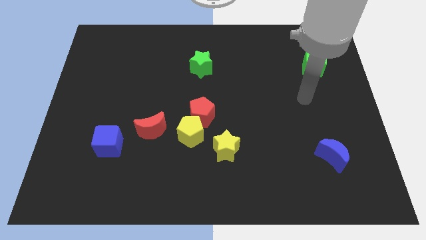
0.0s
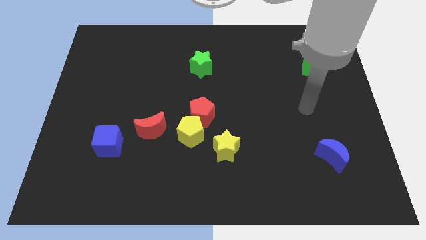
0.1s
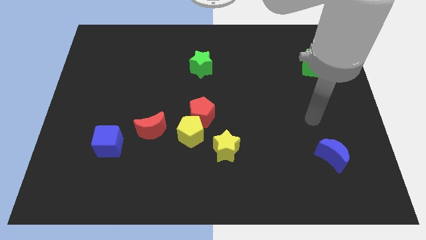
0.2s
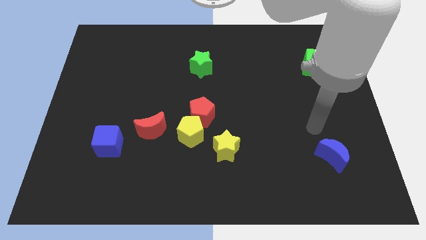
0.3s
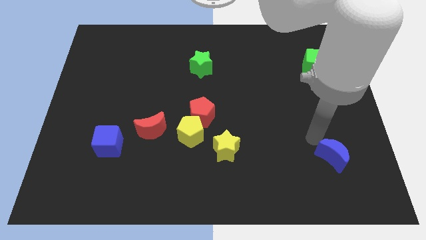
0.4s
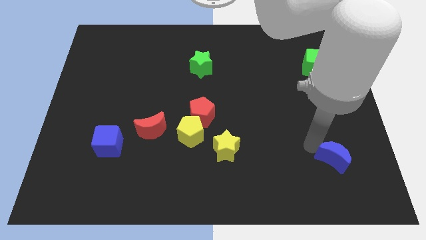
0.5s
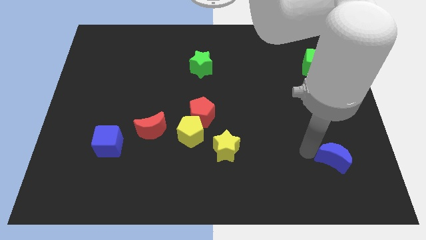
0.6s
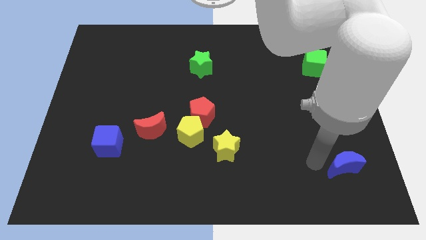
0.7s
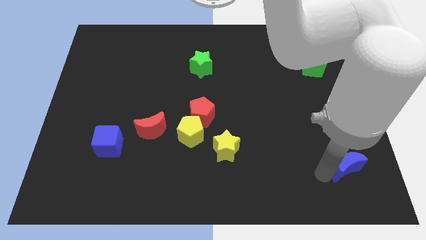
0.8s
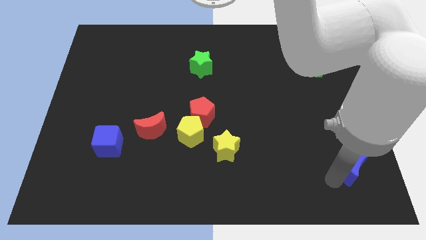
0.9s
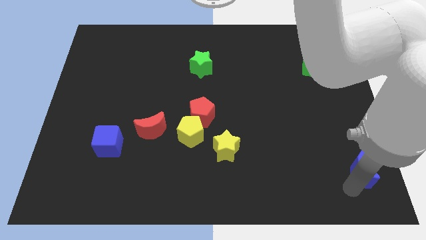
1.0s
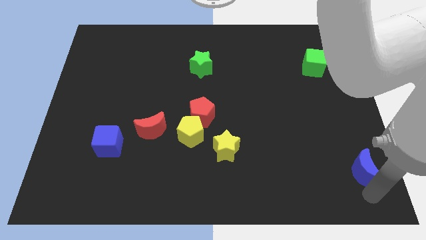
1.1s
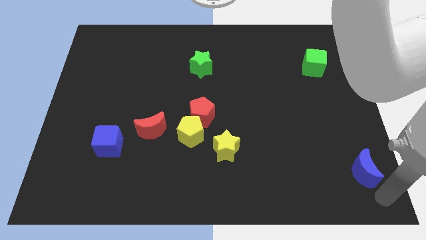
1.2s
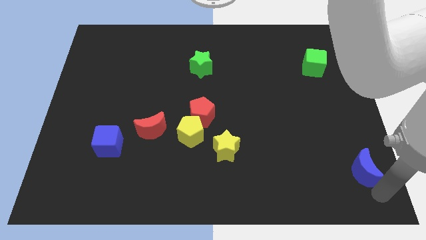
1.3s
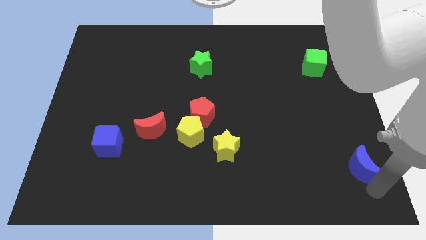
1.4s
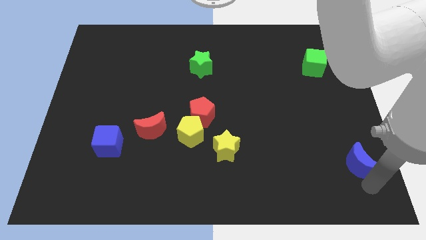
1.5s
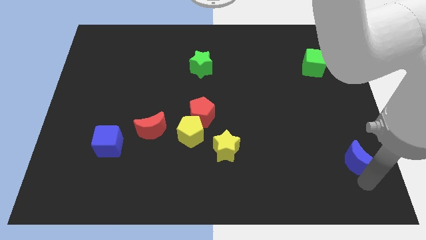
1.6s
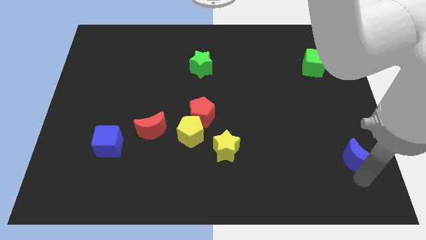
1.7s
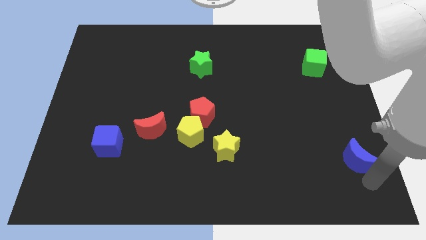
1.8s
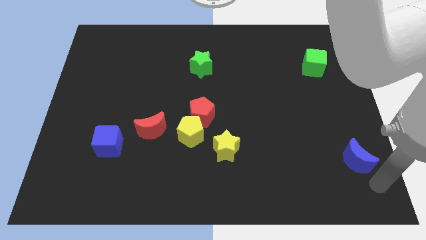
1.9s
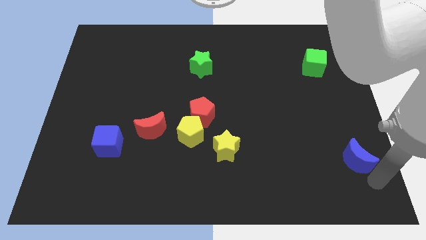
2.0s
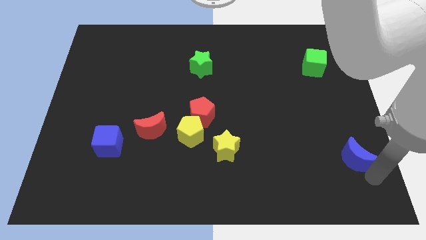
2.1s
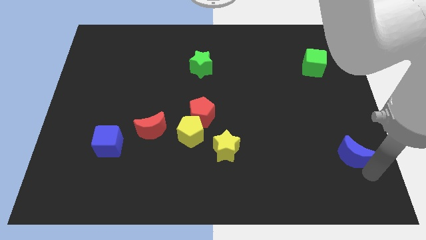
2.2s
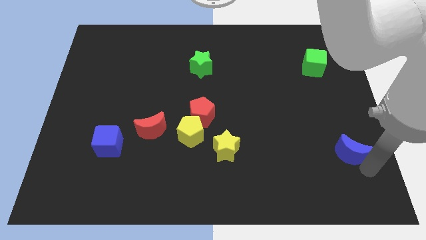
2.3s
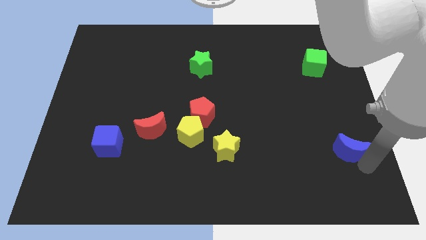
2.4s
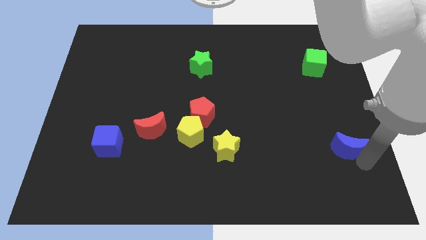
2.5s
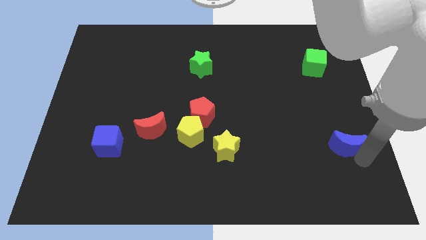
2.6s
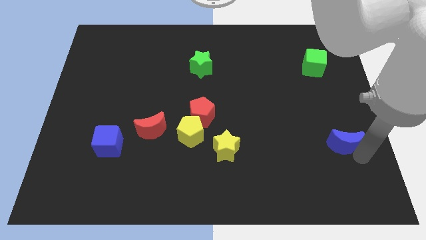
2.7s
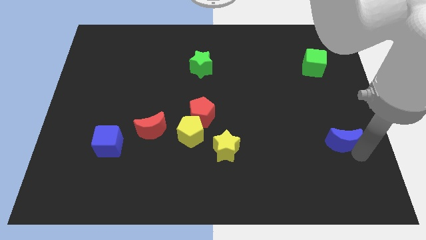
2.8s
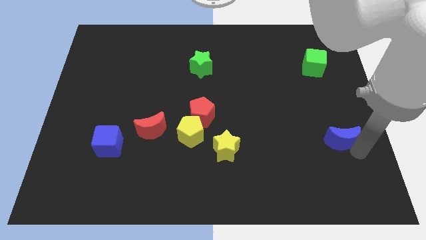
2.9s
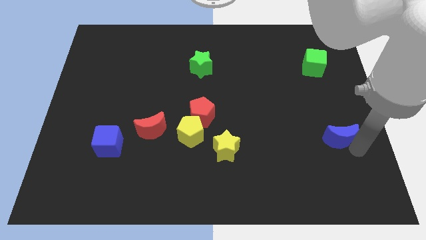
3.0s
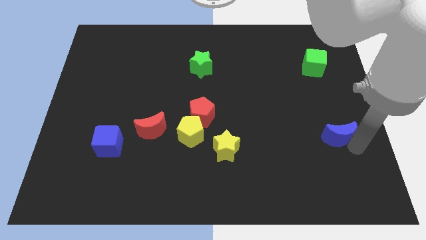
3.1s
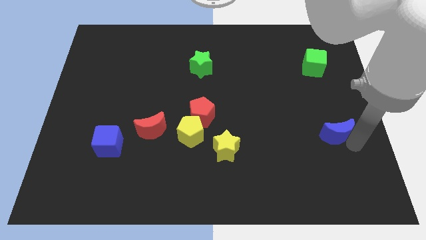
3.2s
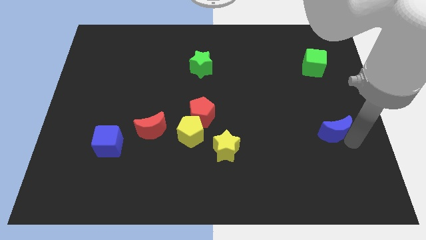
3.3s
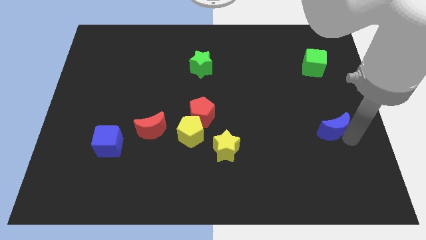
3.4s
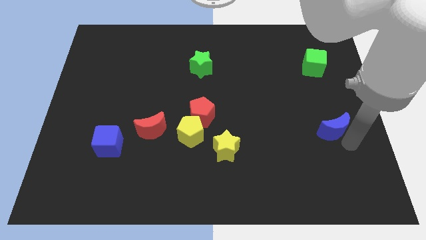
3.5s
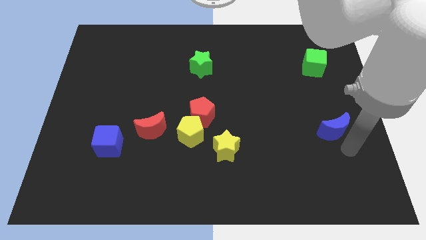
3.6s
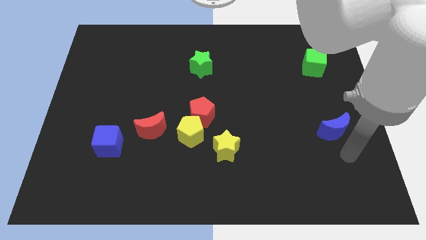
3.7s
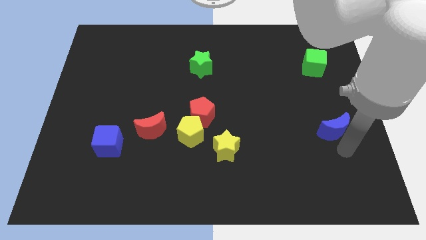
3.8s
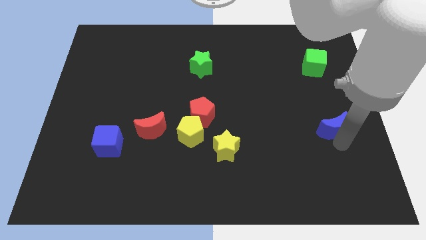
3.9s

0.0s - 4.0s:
slide the blue moon a bit upwards

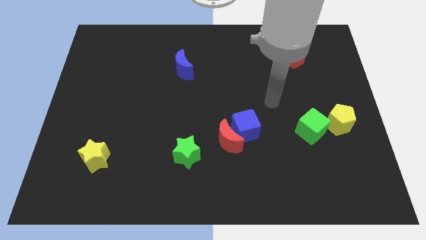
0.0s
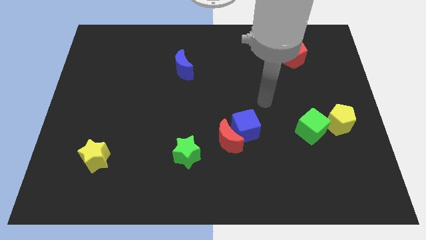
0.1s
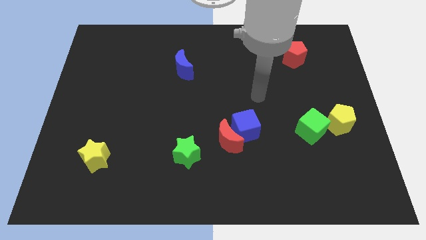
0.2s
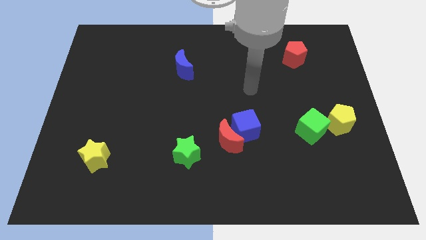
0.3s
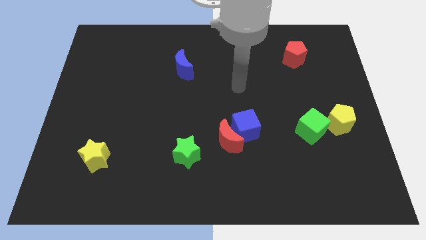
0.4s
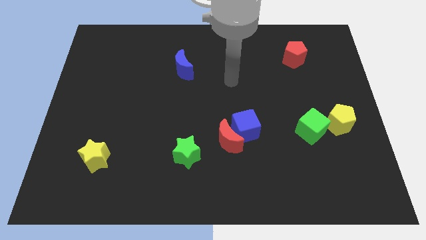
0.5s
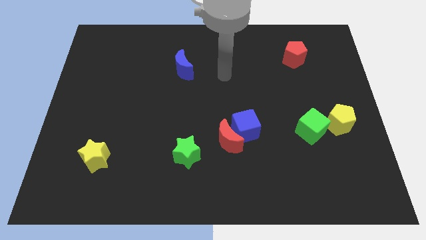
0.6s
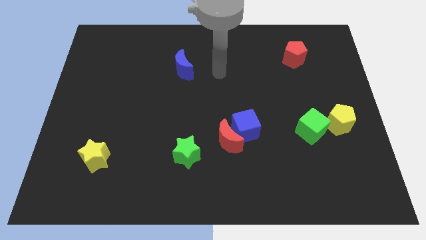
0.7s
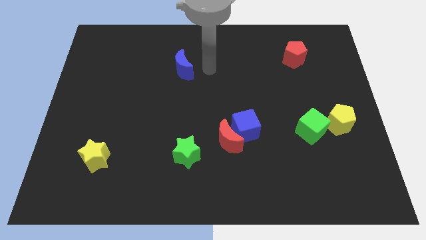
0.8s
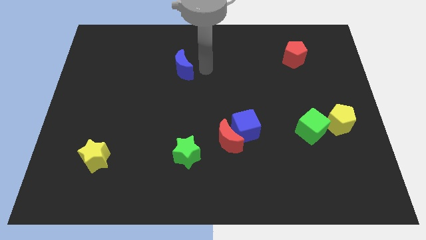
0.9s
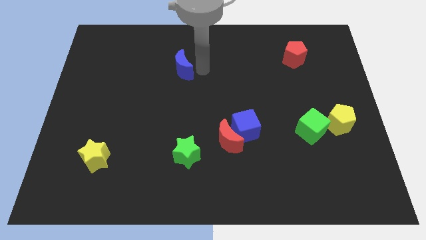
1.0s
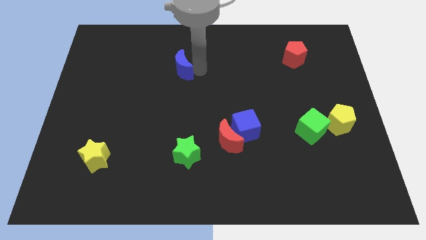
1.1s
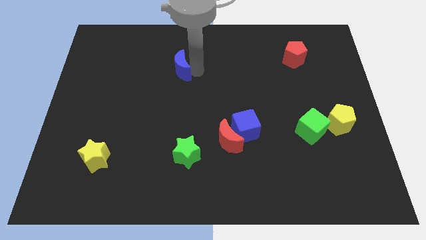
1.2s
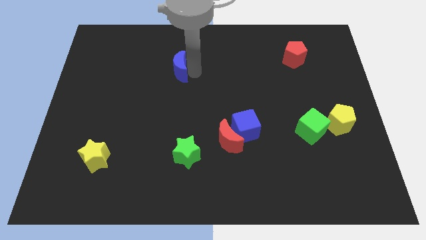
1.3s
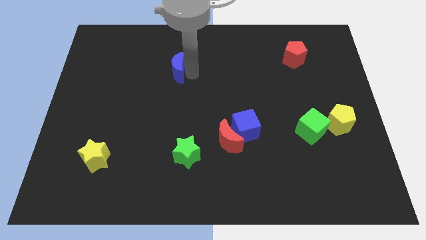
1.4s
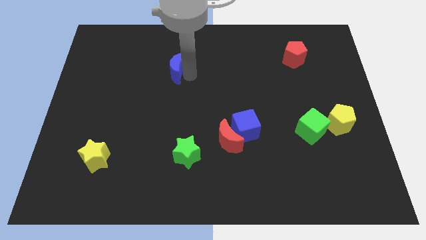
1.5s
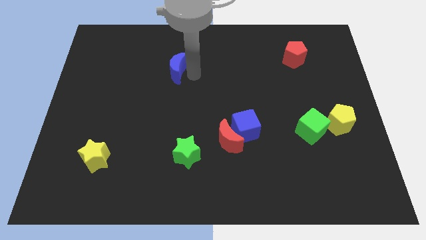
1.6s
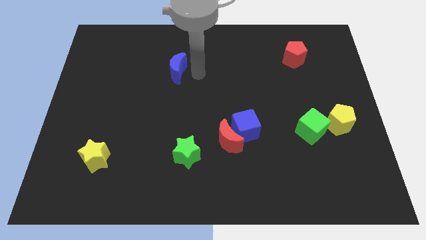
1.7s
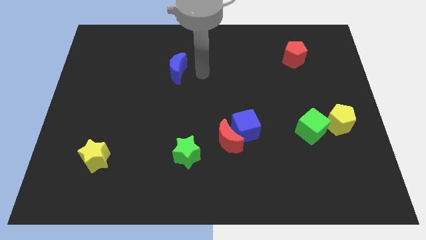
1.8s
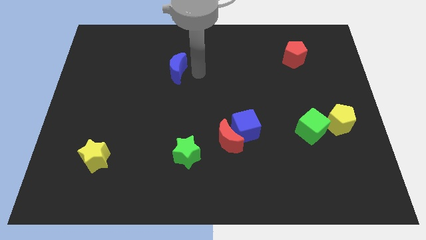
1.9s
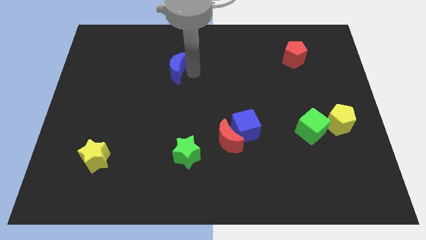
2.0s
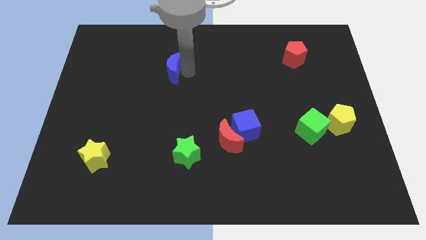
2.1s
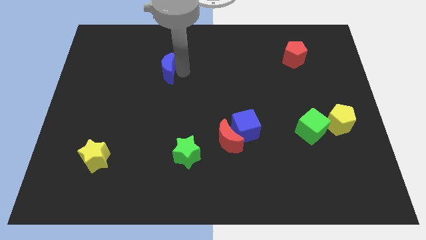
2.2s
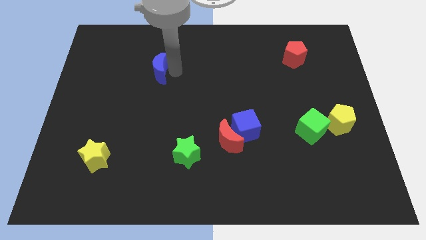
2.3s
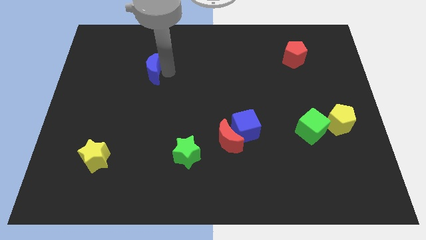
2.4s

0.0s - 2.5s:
slightly move the blue moon to the left

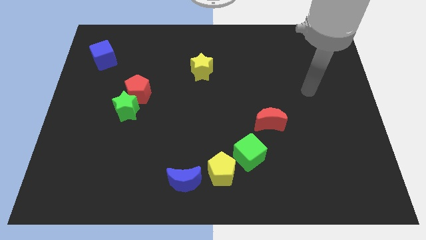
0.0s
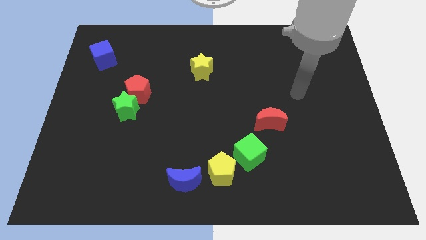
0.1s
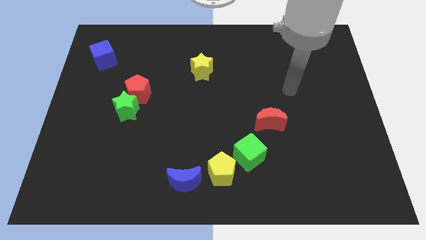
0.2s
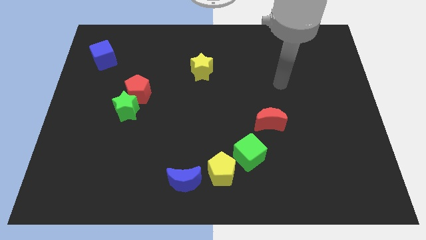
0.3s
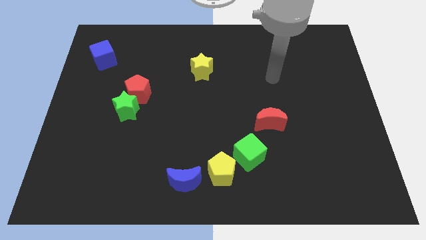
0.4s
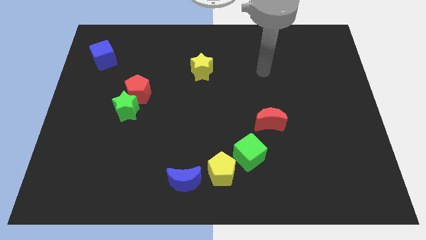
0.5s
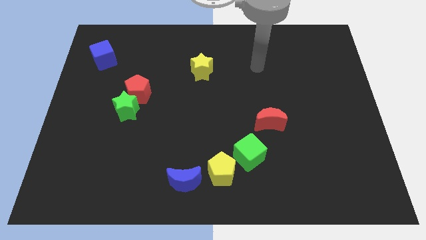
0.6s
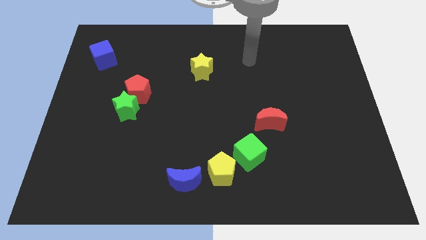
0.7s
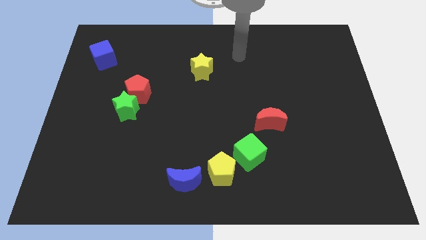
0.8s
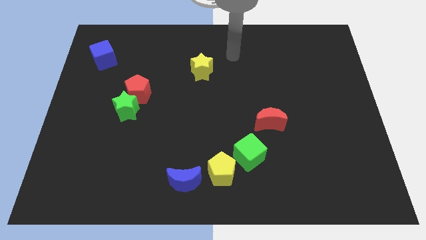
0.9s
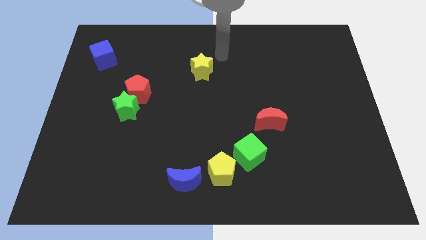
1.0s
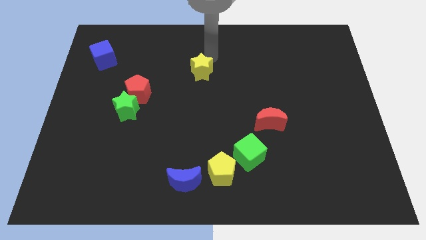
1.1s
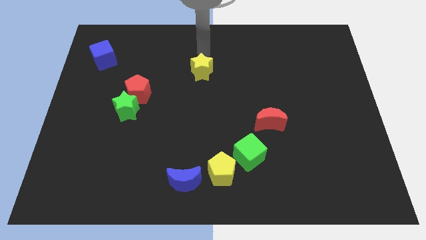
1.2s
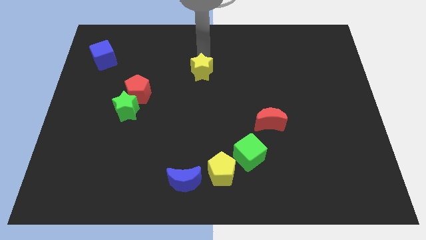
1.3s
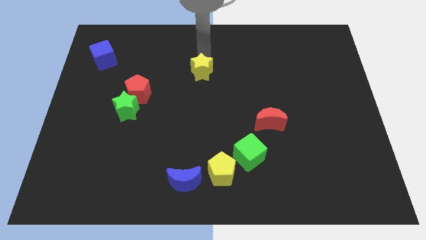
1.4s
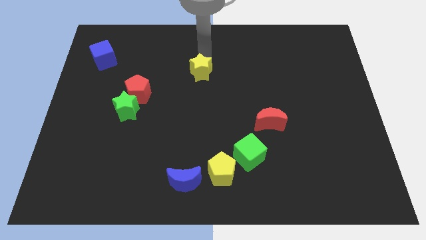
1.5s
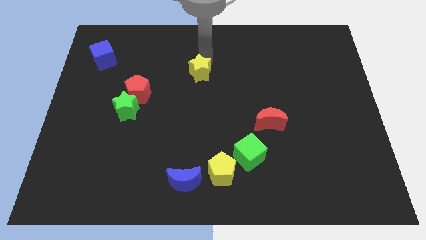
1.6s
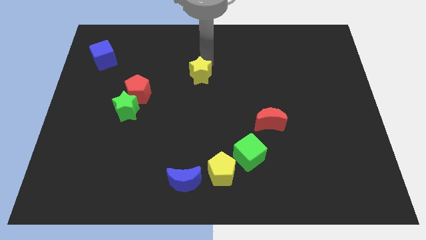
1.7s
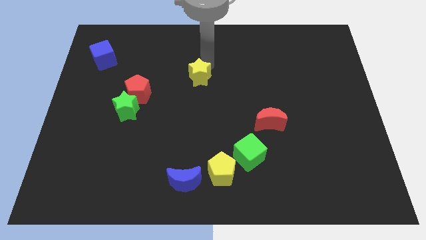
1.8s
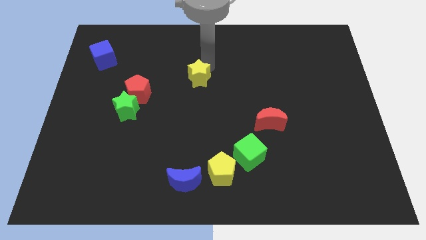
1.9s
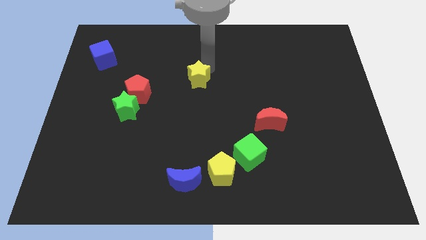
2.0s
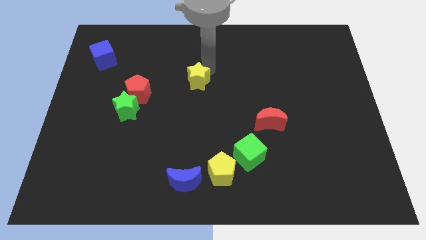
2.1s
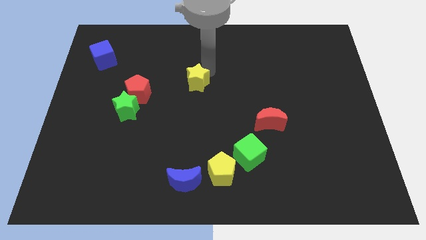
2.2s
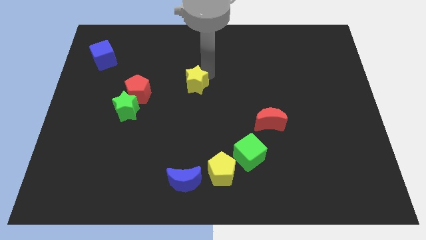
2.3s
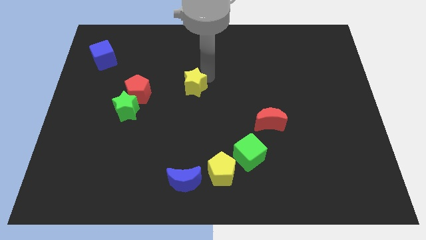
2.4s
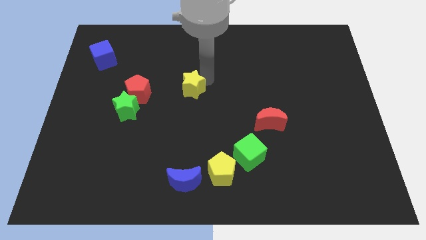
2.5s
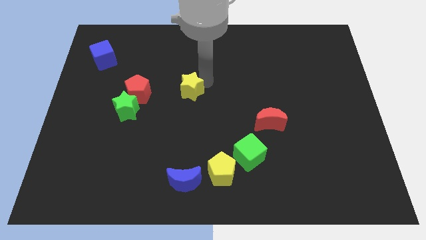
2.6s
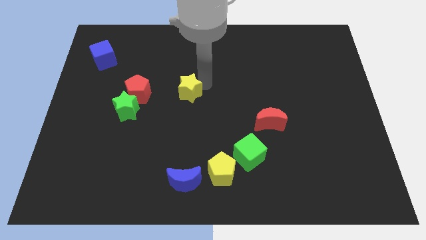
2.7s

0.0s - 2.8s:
move the yellow star slightly down
